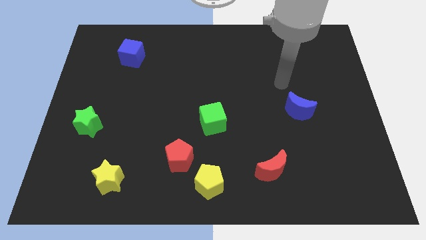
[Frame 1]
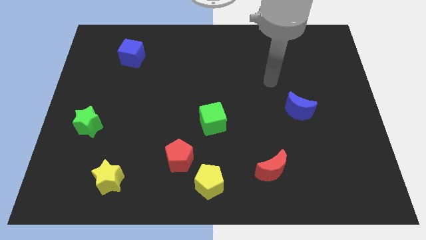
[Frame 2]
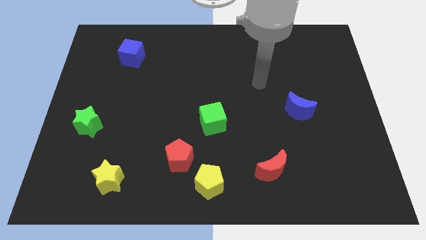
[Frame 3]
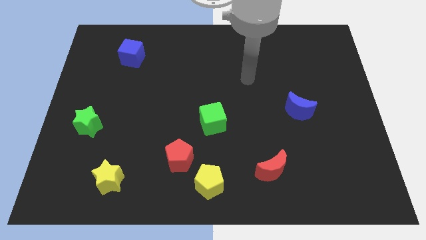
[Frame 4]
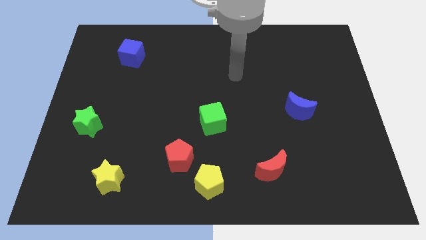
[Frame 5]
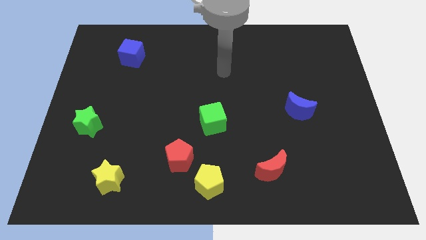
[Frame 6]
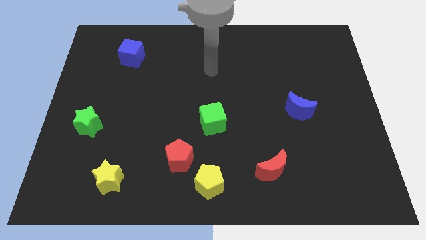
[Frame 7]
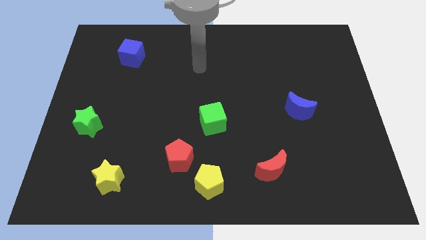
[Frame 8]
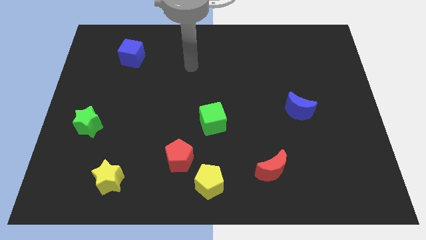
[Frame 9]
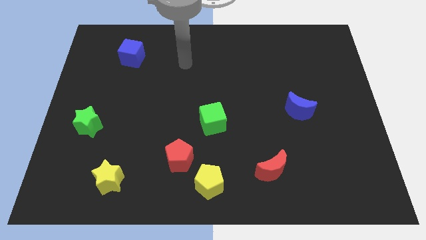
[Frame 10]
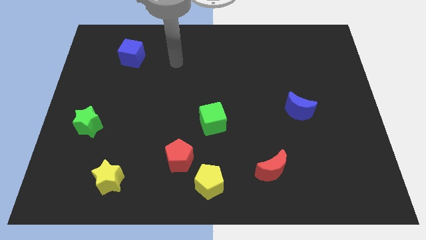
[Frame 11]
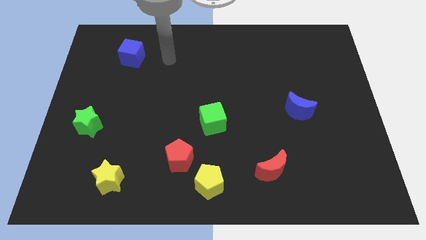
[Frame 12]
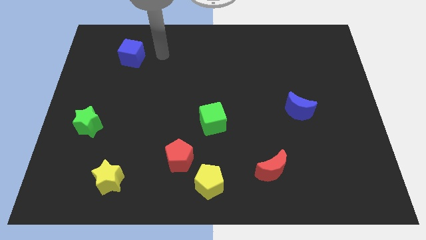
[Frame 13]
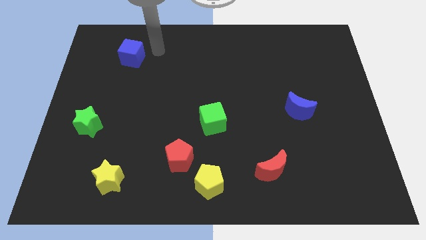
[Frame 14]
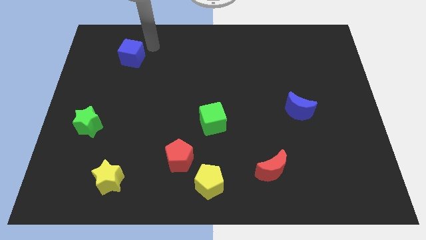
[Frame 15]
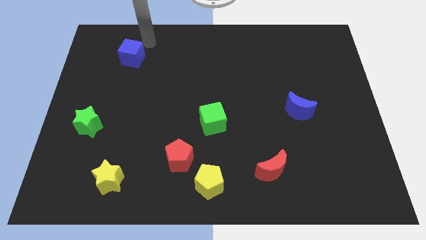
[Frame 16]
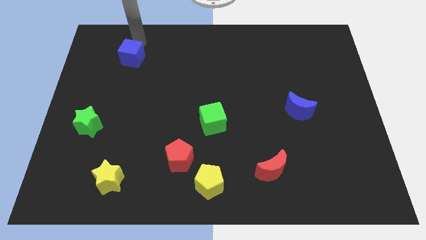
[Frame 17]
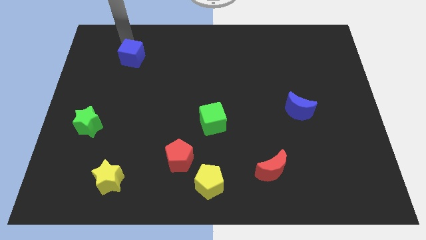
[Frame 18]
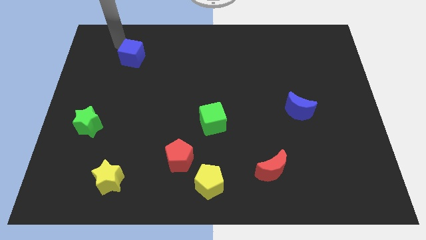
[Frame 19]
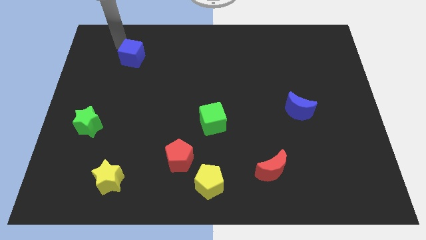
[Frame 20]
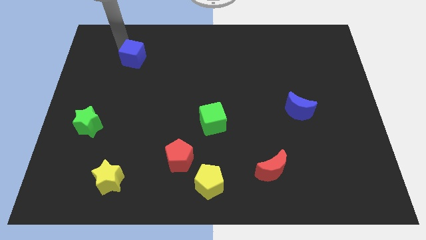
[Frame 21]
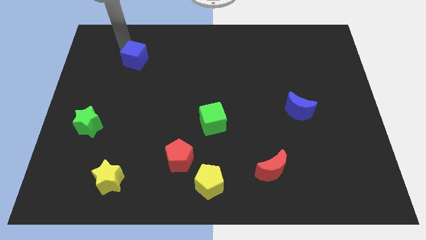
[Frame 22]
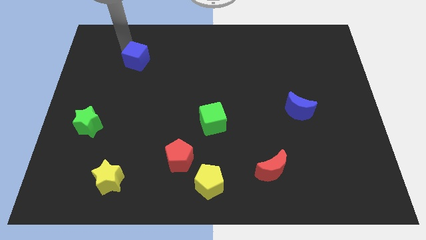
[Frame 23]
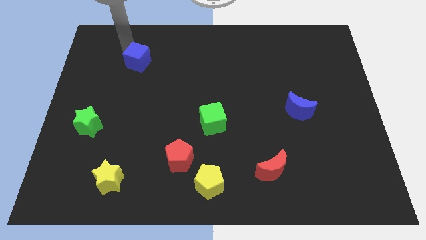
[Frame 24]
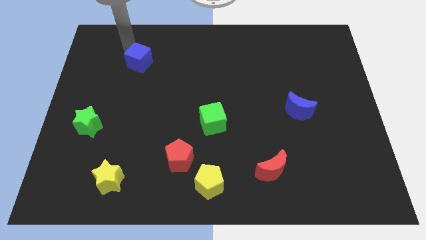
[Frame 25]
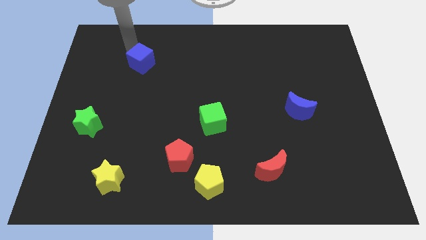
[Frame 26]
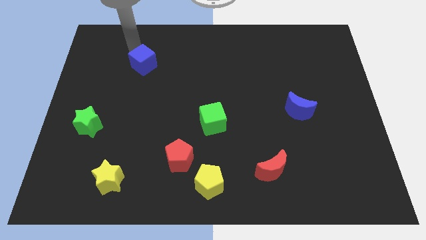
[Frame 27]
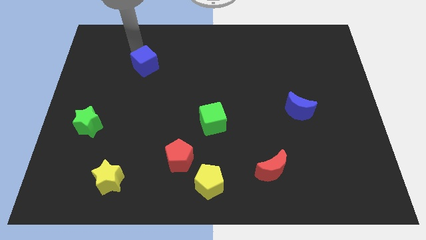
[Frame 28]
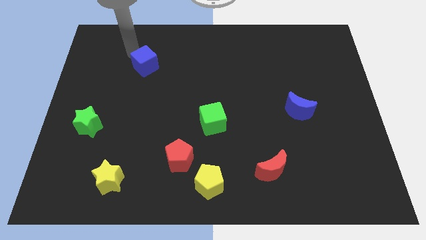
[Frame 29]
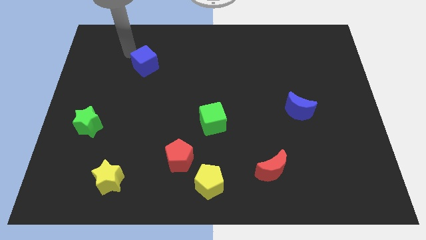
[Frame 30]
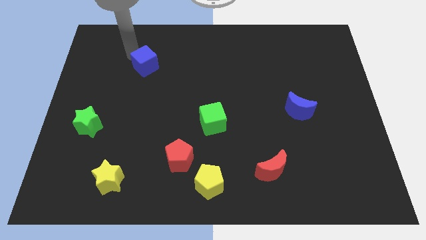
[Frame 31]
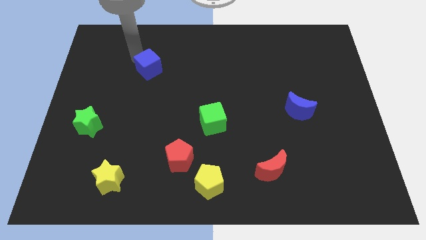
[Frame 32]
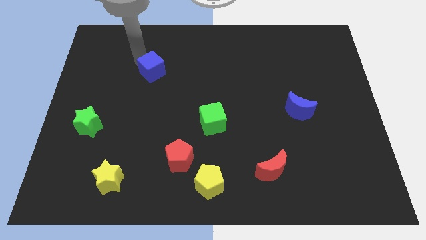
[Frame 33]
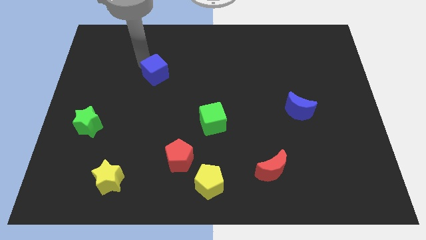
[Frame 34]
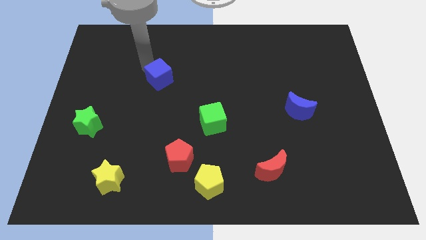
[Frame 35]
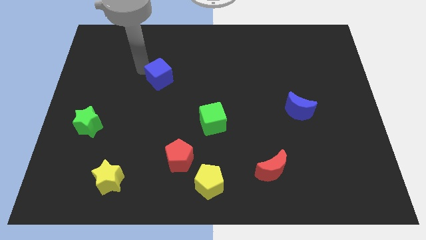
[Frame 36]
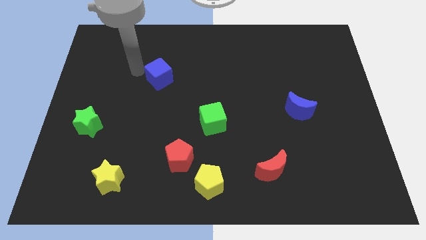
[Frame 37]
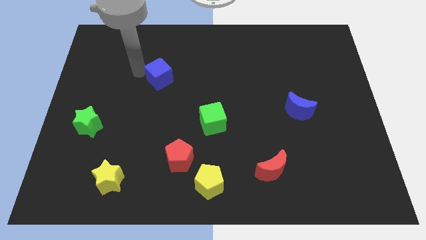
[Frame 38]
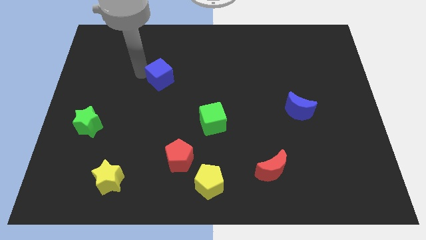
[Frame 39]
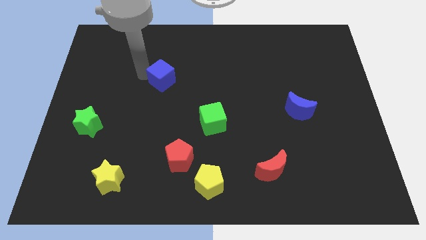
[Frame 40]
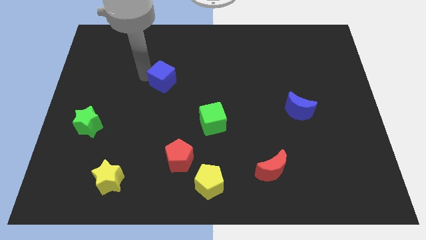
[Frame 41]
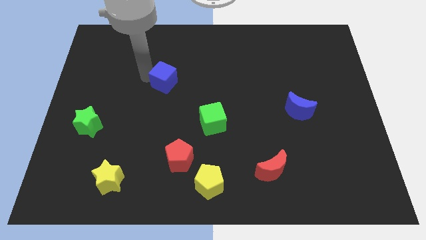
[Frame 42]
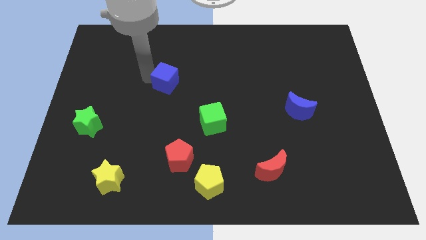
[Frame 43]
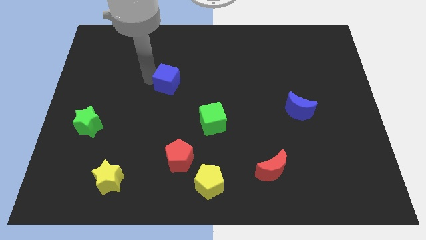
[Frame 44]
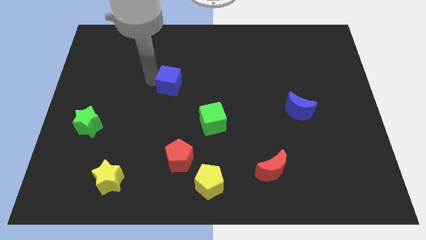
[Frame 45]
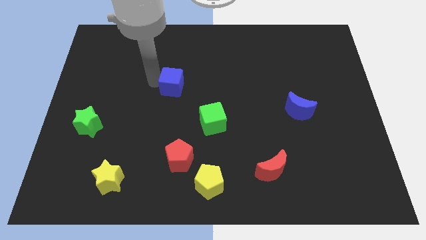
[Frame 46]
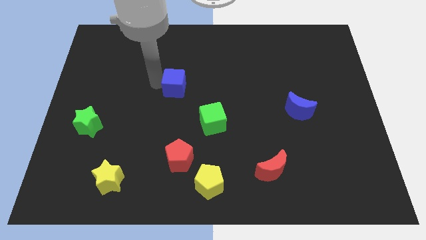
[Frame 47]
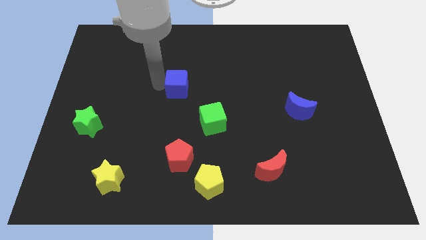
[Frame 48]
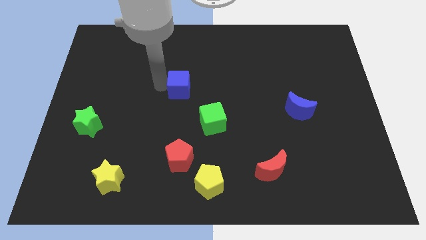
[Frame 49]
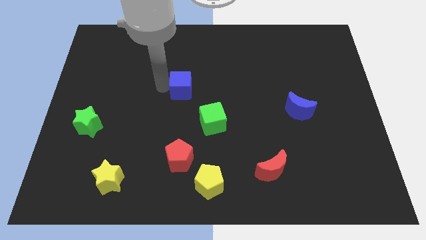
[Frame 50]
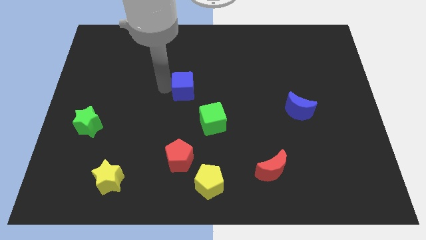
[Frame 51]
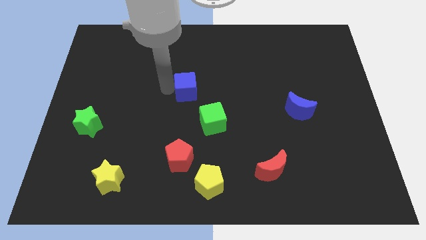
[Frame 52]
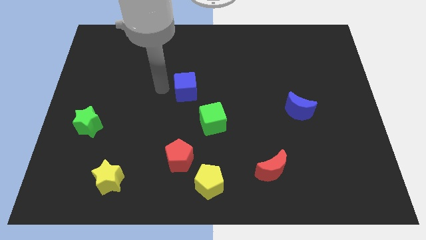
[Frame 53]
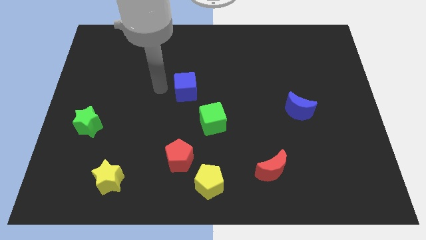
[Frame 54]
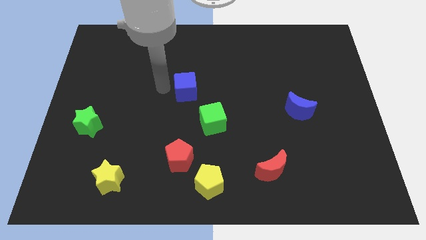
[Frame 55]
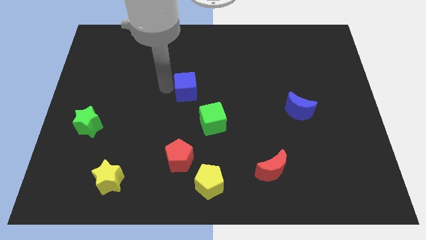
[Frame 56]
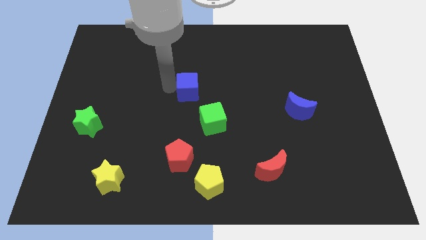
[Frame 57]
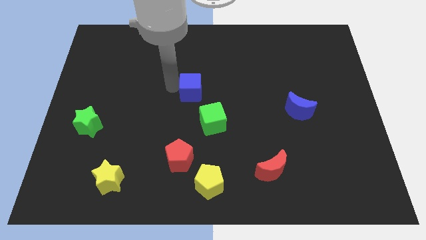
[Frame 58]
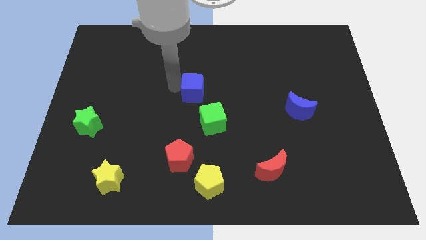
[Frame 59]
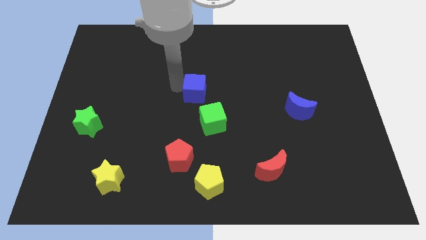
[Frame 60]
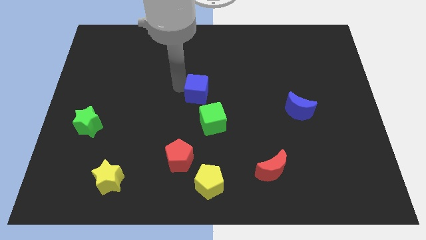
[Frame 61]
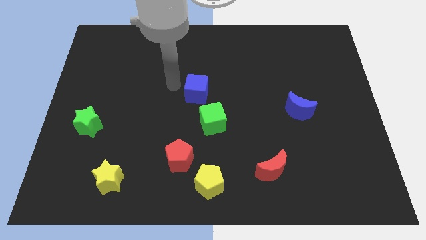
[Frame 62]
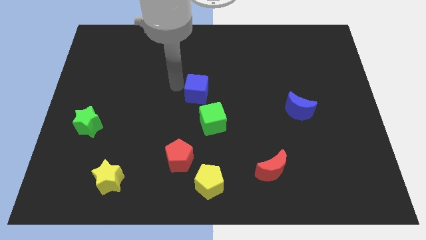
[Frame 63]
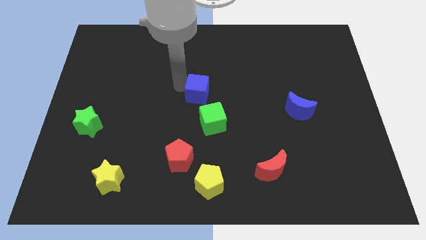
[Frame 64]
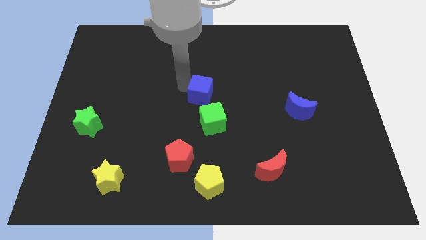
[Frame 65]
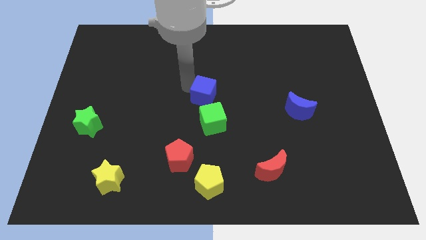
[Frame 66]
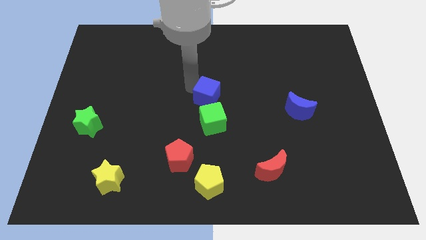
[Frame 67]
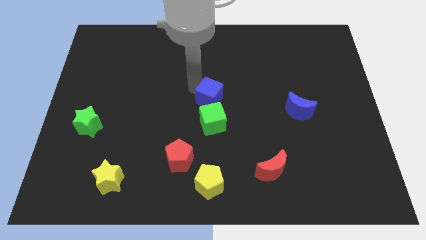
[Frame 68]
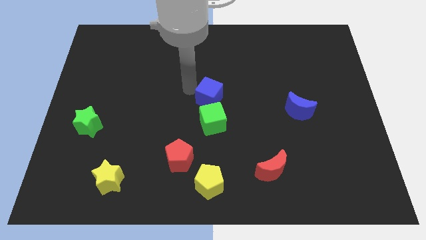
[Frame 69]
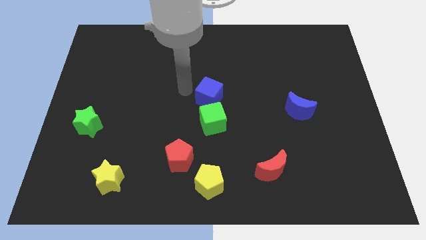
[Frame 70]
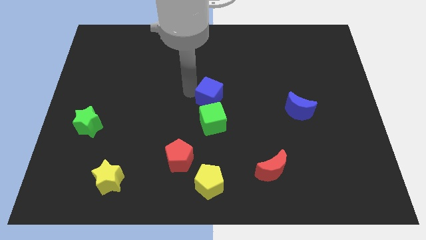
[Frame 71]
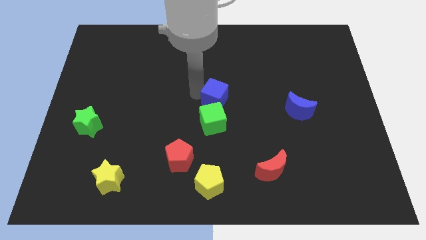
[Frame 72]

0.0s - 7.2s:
slide the blue cube diagonally up and to the right of the green cube

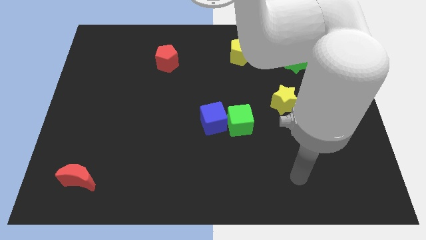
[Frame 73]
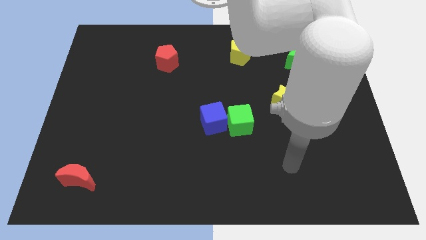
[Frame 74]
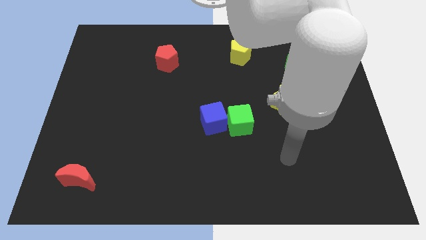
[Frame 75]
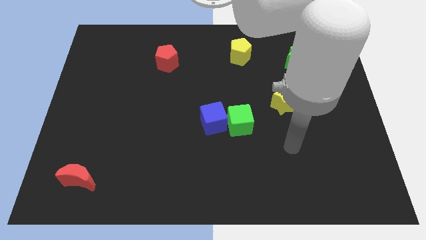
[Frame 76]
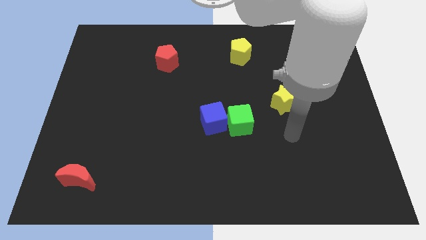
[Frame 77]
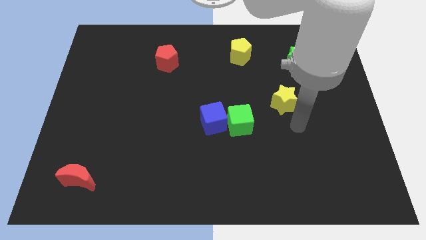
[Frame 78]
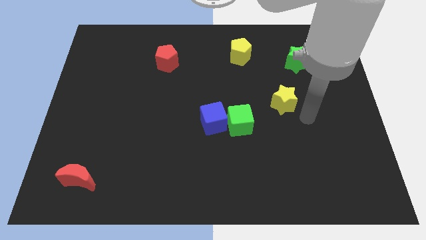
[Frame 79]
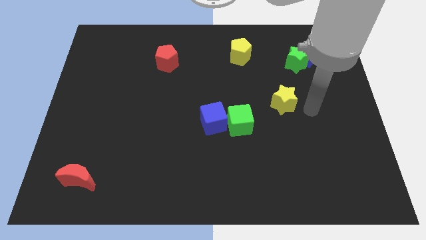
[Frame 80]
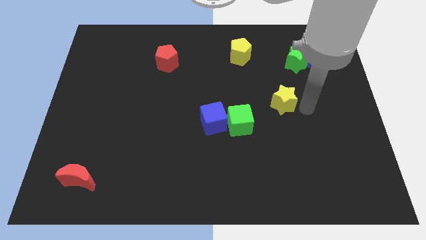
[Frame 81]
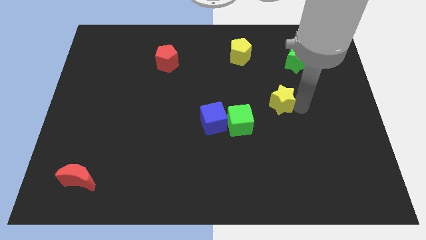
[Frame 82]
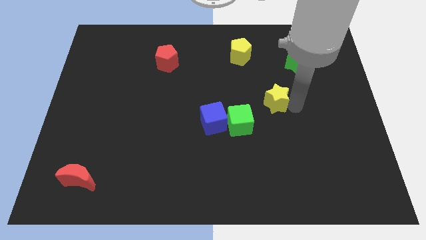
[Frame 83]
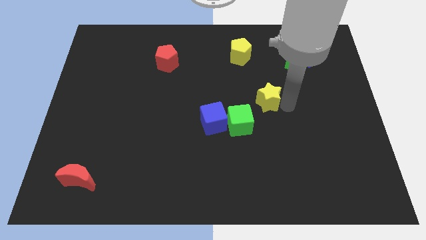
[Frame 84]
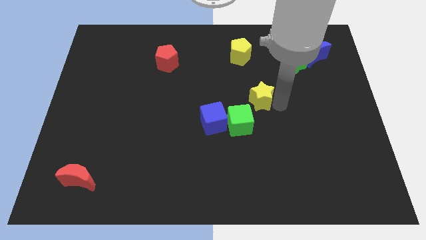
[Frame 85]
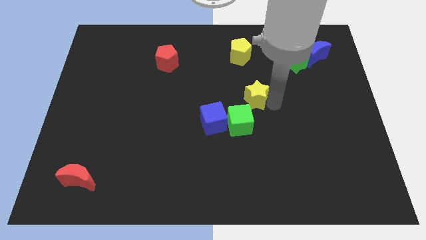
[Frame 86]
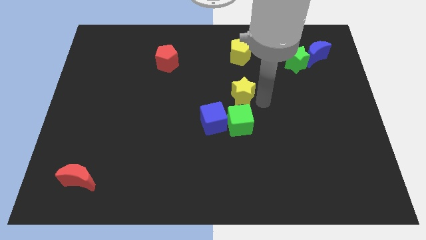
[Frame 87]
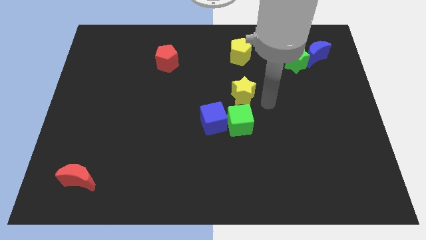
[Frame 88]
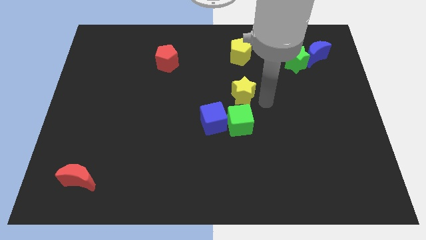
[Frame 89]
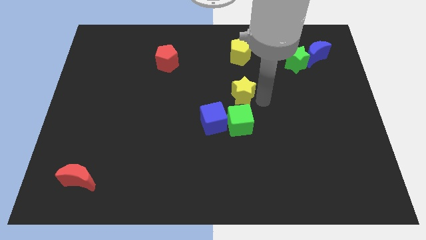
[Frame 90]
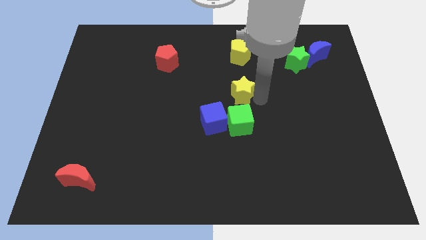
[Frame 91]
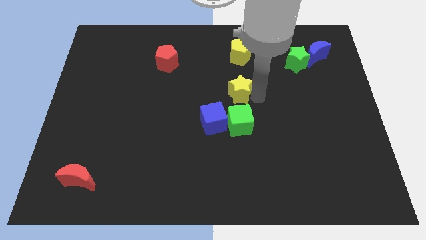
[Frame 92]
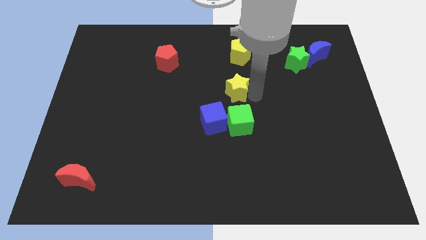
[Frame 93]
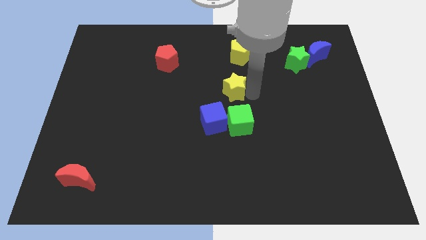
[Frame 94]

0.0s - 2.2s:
move the yellow star above the blue cube
